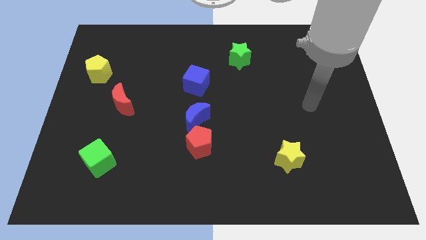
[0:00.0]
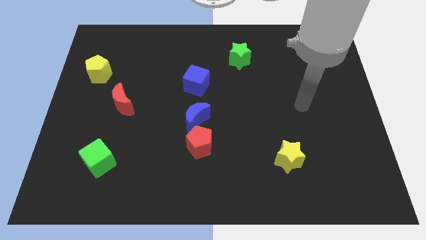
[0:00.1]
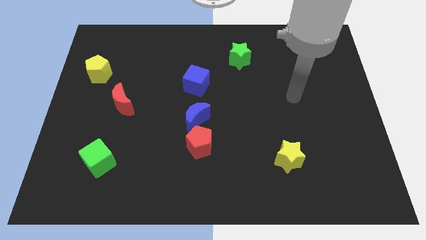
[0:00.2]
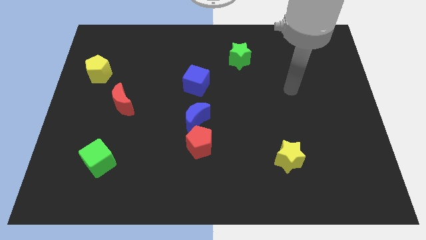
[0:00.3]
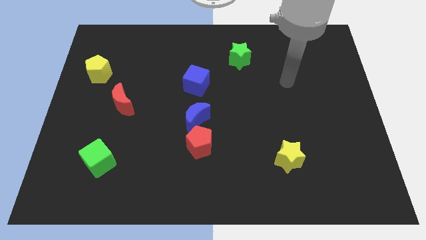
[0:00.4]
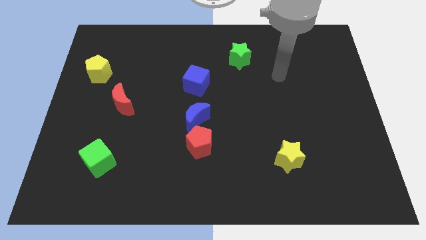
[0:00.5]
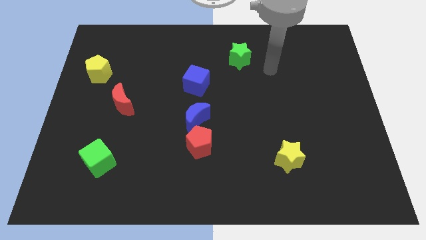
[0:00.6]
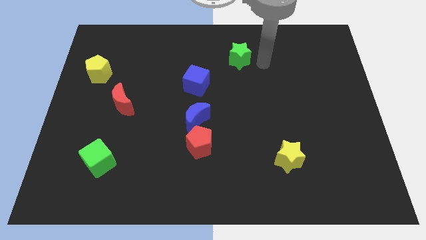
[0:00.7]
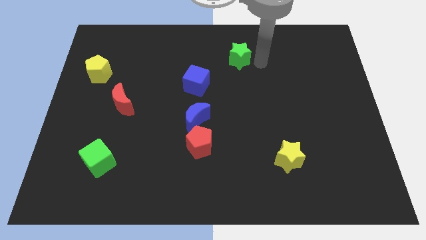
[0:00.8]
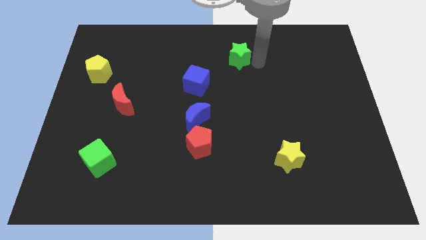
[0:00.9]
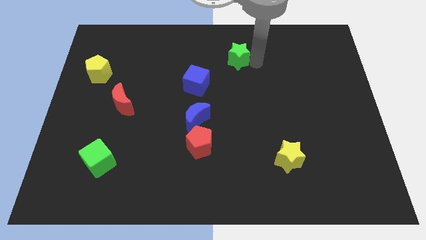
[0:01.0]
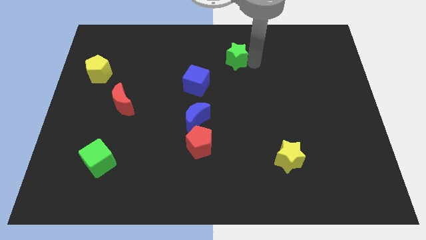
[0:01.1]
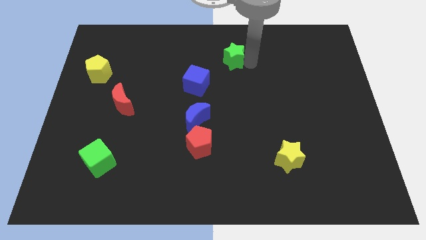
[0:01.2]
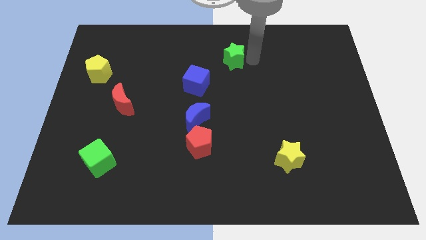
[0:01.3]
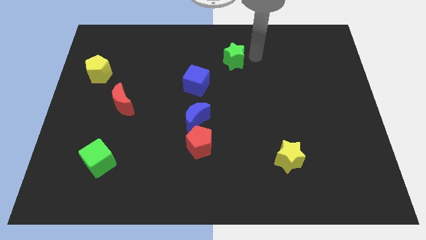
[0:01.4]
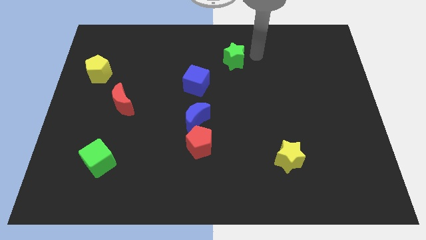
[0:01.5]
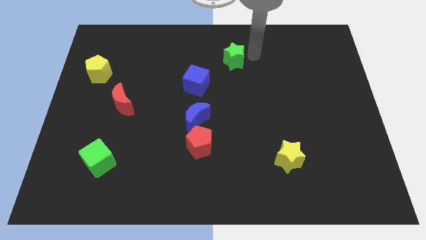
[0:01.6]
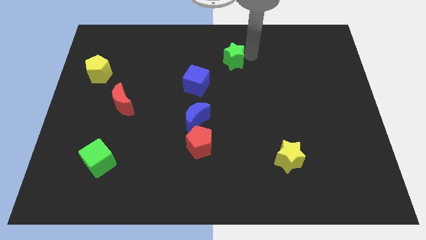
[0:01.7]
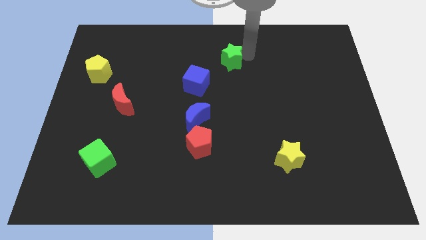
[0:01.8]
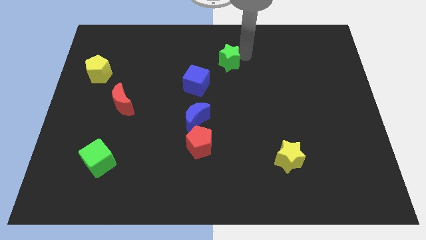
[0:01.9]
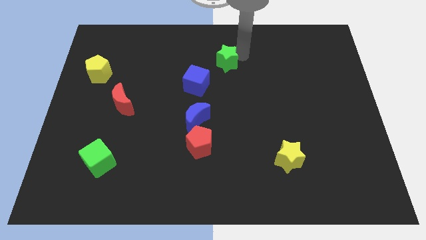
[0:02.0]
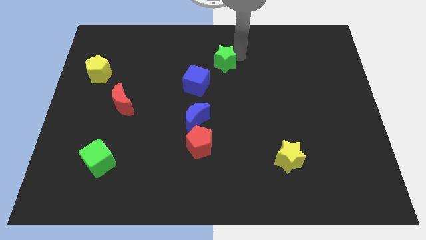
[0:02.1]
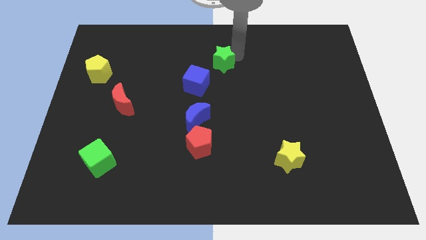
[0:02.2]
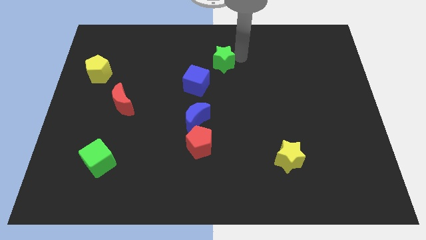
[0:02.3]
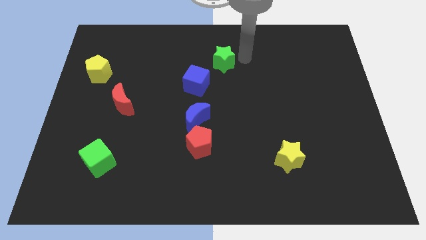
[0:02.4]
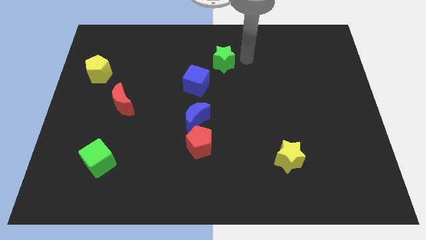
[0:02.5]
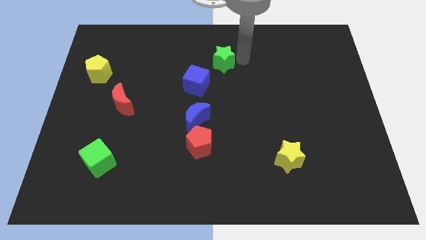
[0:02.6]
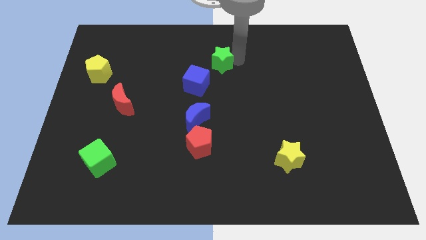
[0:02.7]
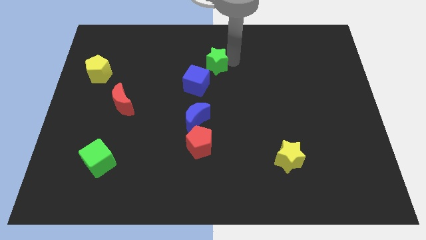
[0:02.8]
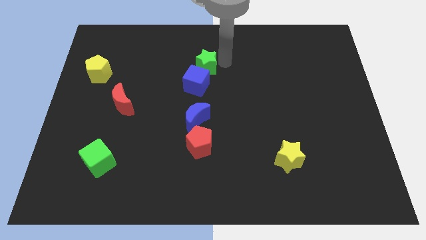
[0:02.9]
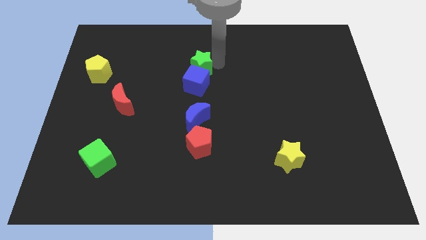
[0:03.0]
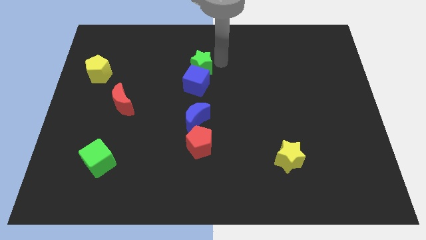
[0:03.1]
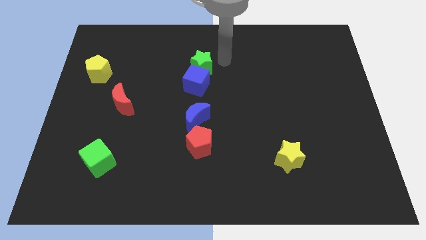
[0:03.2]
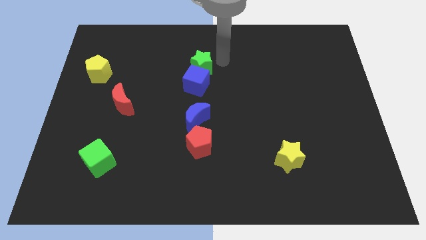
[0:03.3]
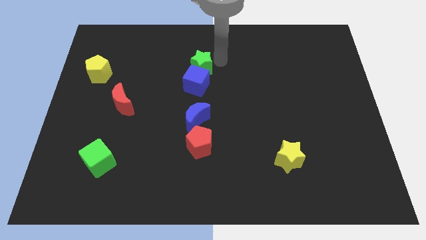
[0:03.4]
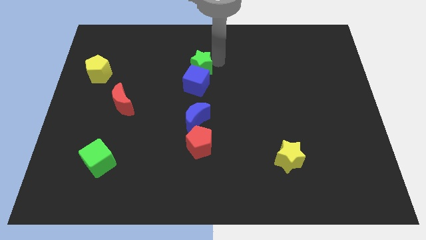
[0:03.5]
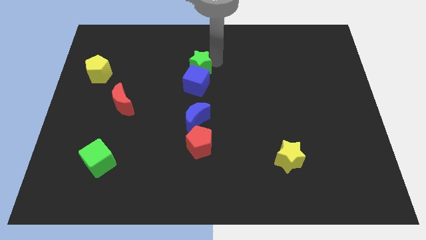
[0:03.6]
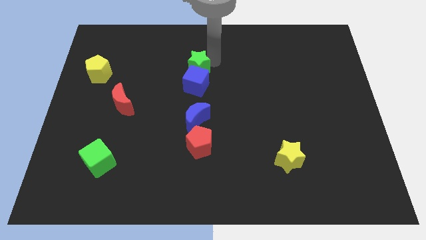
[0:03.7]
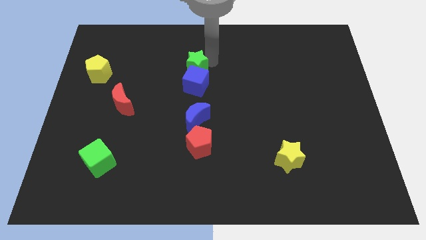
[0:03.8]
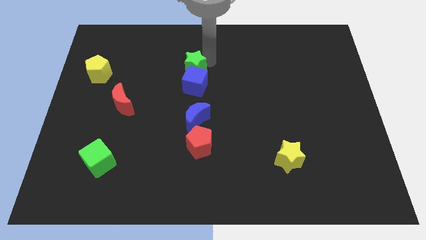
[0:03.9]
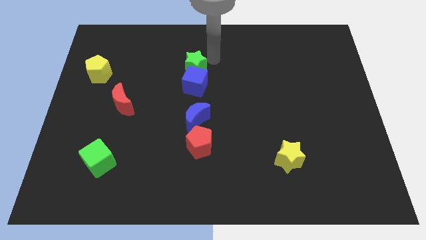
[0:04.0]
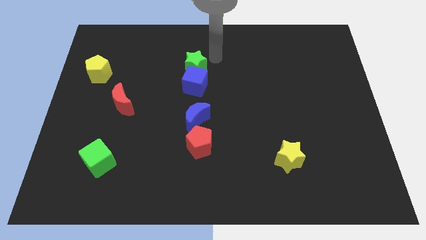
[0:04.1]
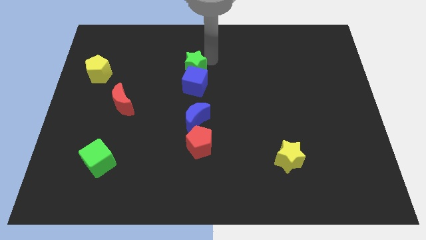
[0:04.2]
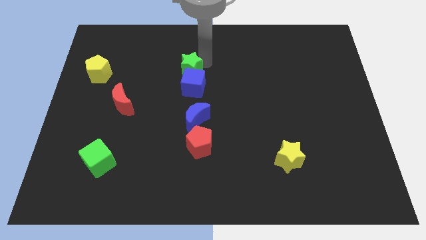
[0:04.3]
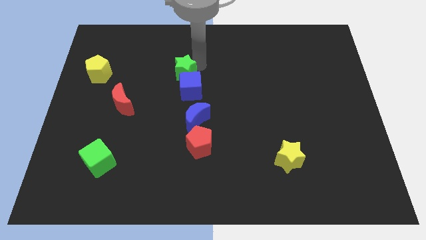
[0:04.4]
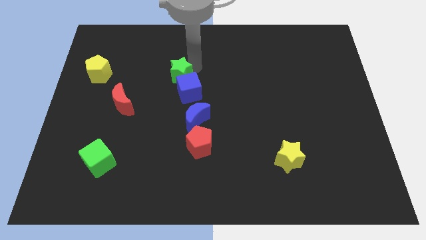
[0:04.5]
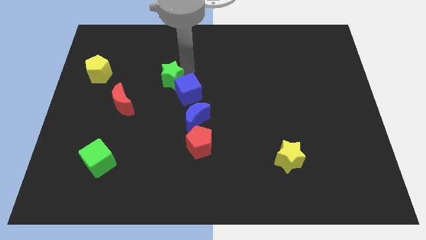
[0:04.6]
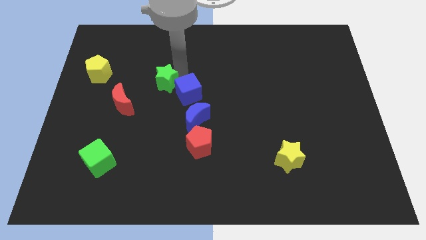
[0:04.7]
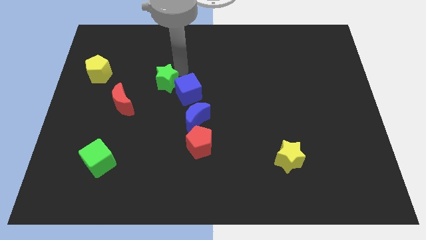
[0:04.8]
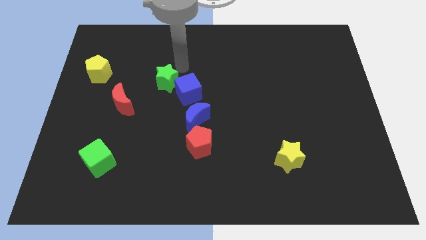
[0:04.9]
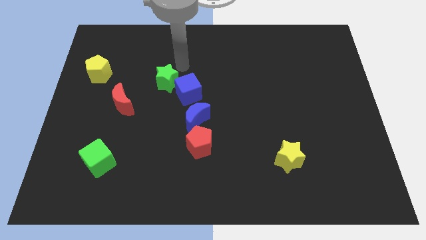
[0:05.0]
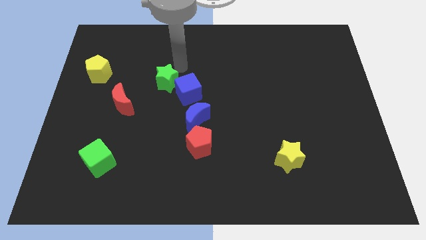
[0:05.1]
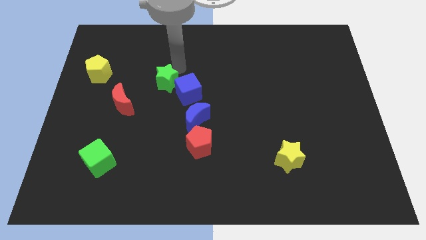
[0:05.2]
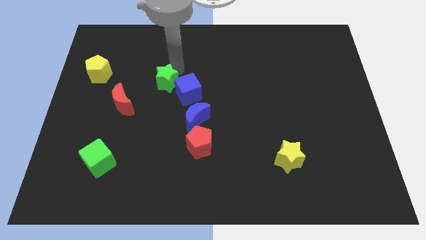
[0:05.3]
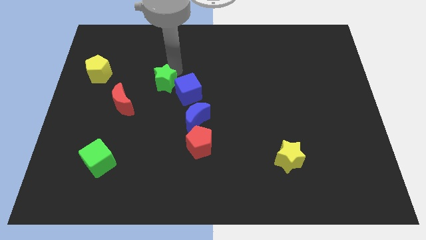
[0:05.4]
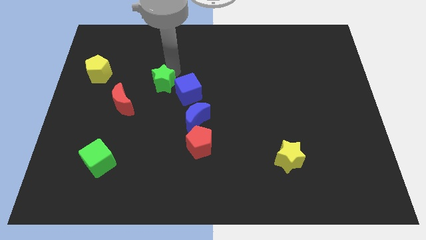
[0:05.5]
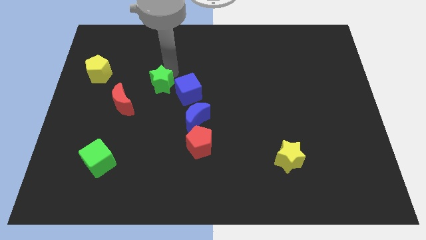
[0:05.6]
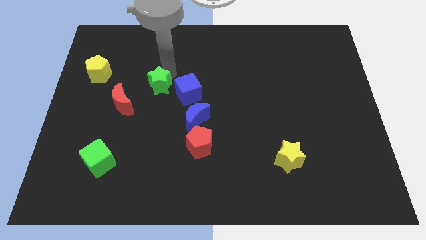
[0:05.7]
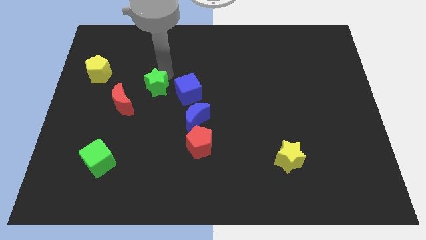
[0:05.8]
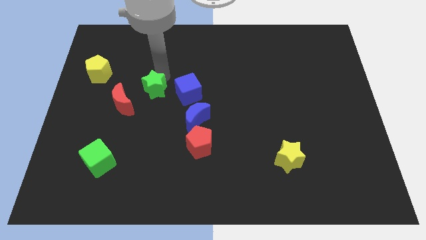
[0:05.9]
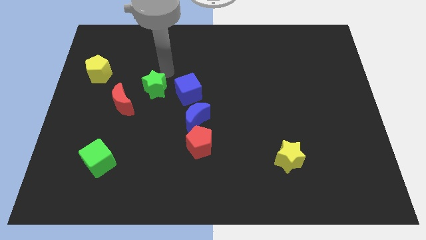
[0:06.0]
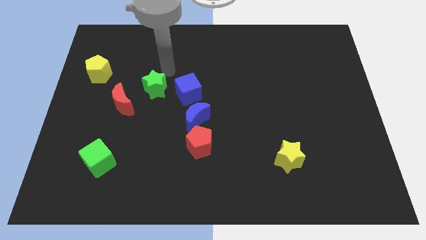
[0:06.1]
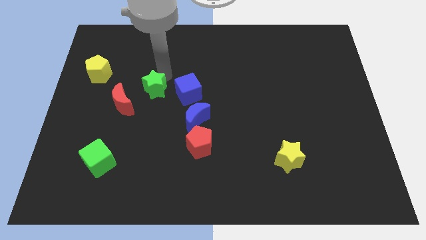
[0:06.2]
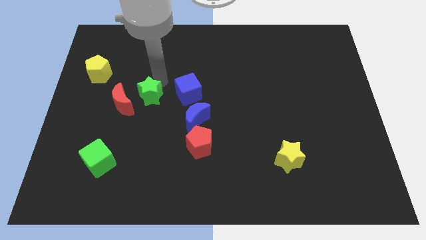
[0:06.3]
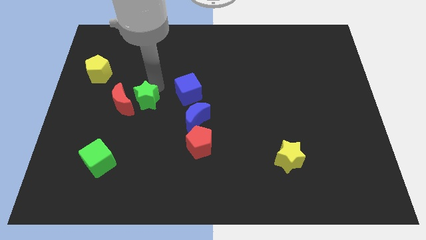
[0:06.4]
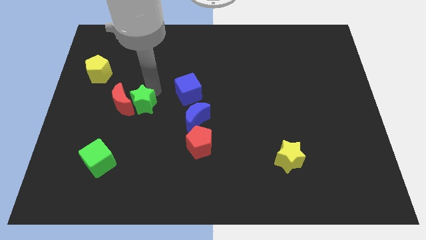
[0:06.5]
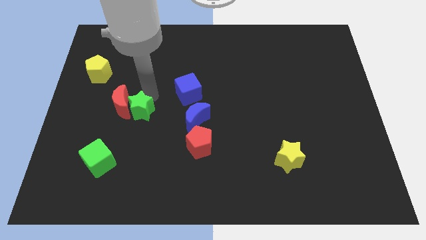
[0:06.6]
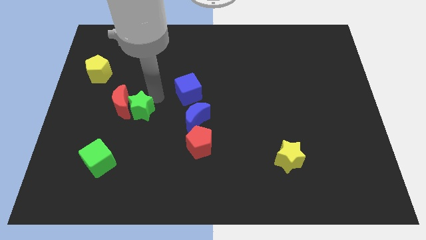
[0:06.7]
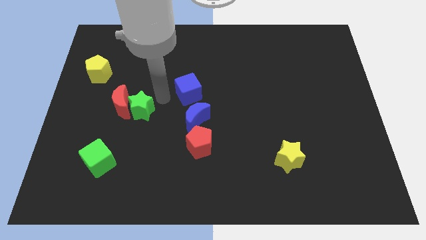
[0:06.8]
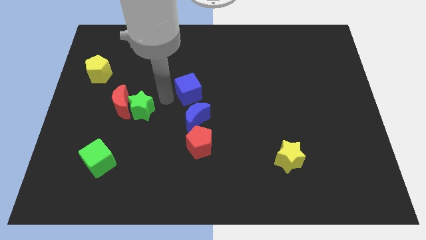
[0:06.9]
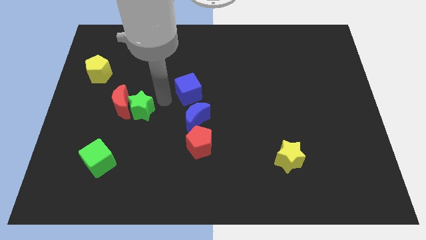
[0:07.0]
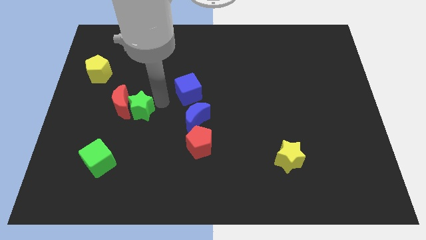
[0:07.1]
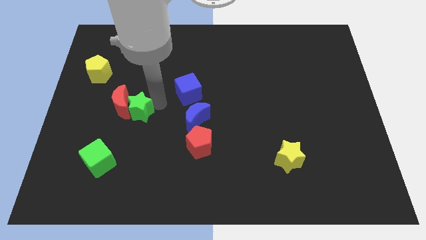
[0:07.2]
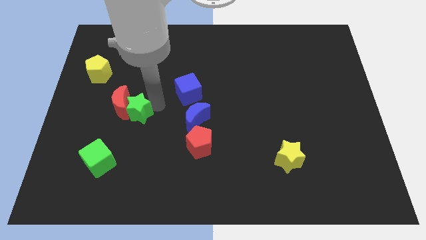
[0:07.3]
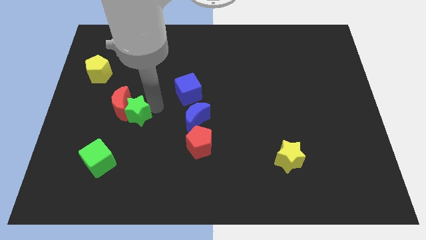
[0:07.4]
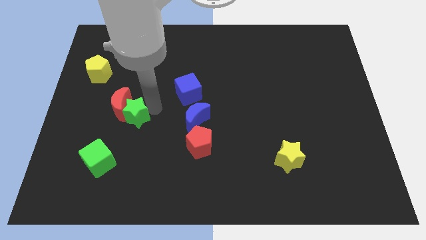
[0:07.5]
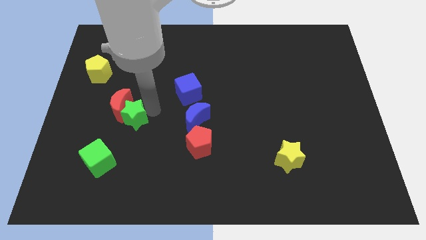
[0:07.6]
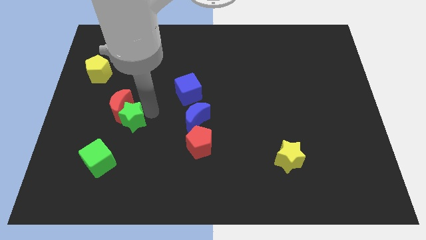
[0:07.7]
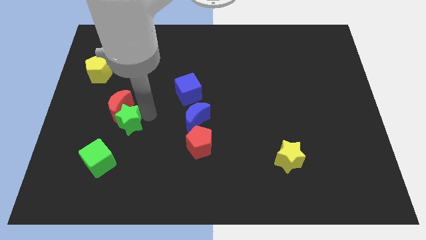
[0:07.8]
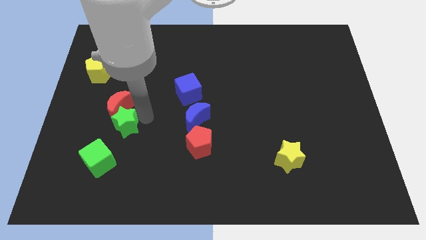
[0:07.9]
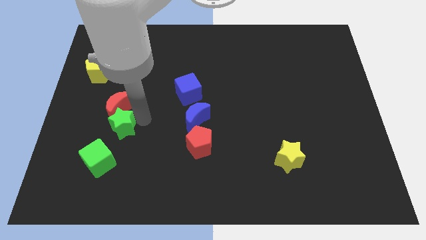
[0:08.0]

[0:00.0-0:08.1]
put the green star to the bottom left side of the red moon
